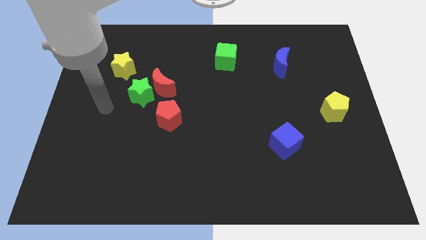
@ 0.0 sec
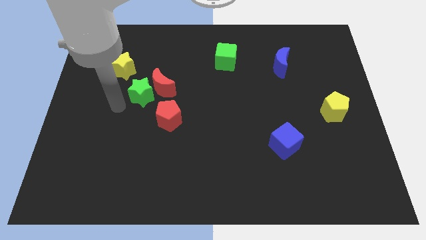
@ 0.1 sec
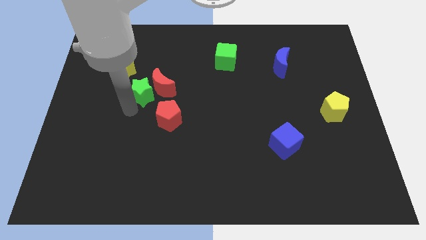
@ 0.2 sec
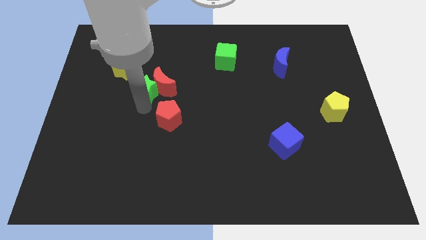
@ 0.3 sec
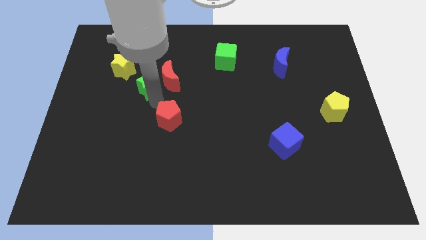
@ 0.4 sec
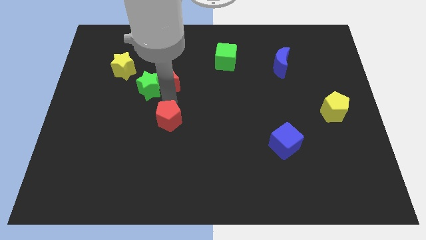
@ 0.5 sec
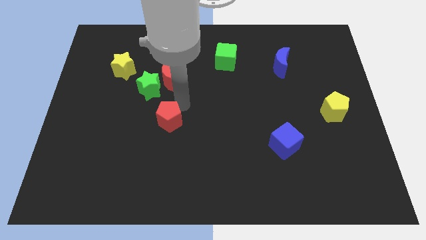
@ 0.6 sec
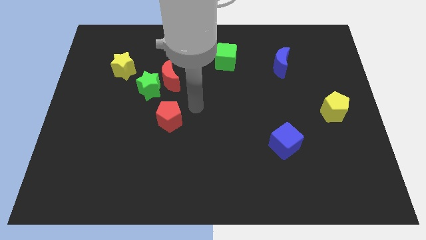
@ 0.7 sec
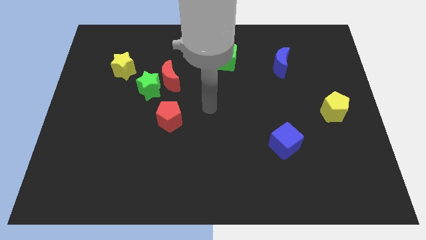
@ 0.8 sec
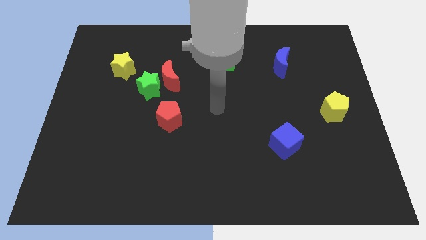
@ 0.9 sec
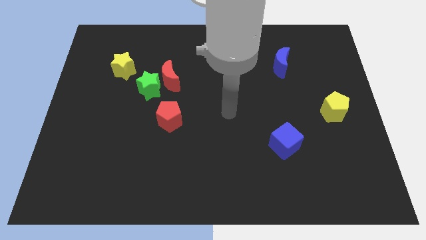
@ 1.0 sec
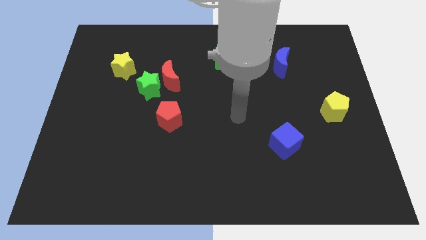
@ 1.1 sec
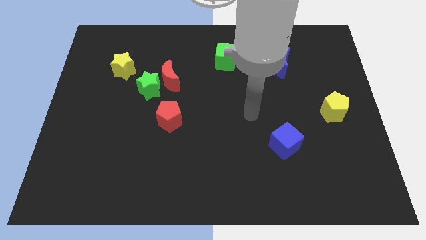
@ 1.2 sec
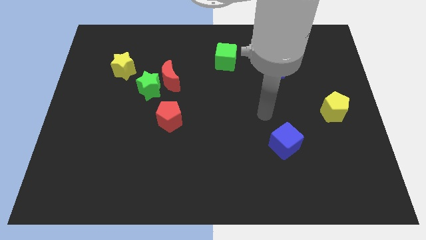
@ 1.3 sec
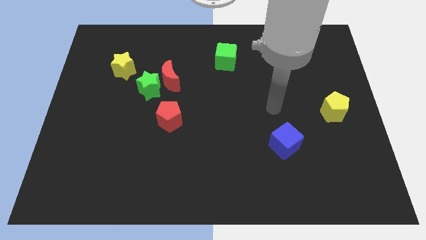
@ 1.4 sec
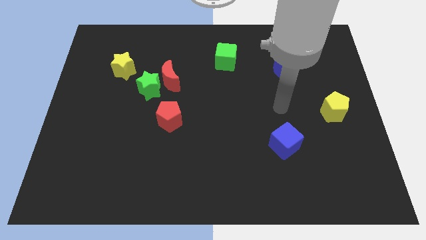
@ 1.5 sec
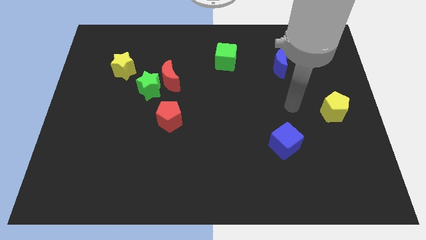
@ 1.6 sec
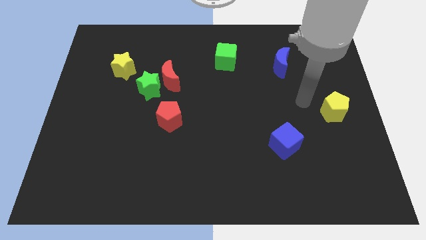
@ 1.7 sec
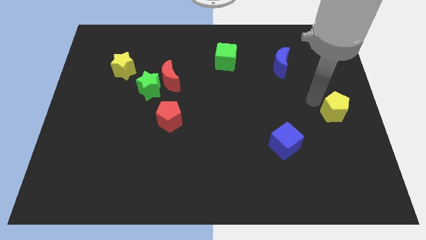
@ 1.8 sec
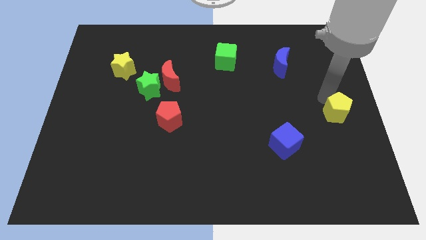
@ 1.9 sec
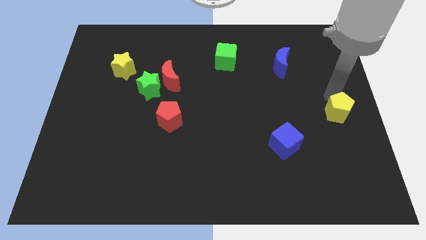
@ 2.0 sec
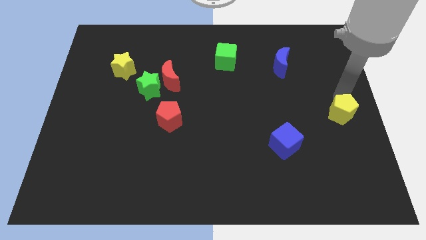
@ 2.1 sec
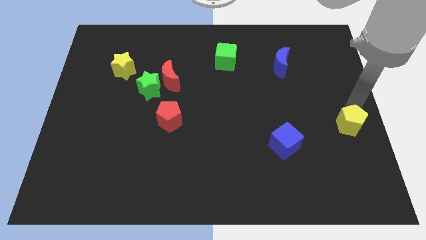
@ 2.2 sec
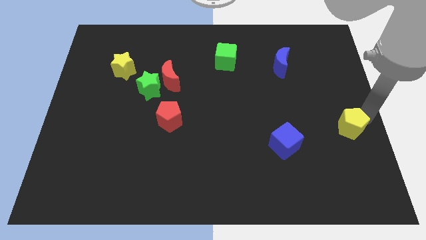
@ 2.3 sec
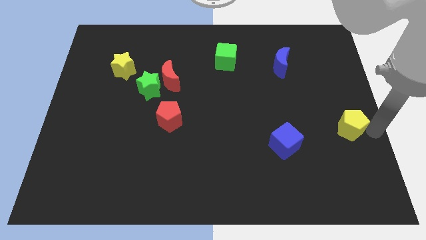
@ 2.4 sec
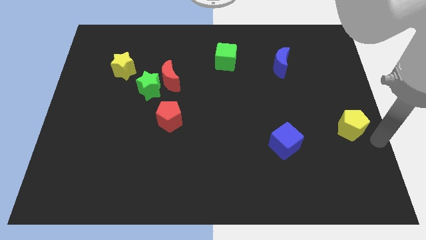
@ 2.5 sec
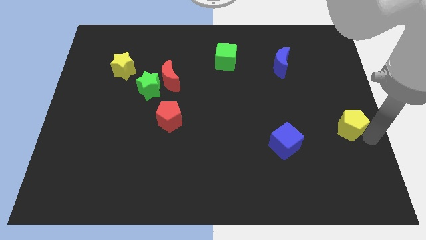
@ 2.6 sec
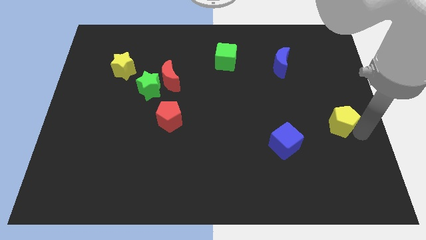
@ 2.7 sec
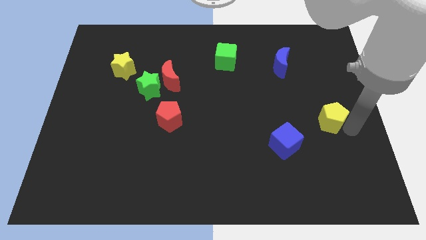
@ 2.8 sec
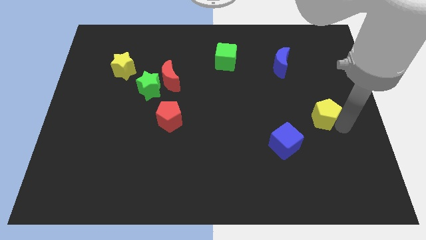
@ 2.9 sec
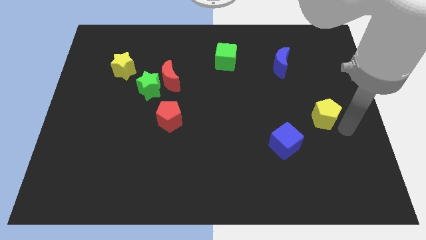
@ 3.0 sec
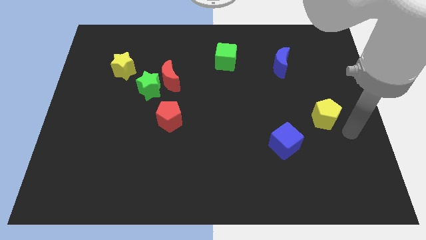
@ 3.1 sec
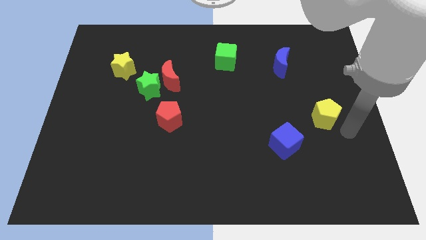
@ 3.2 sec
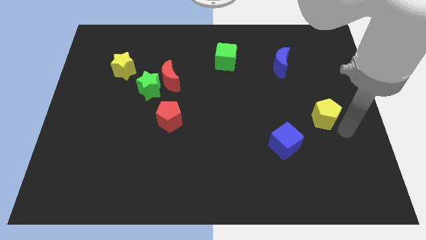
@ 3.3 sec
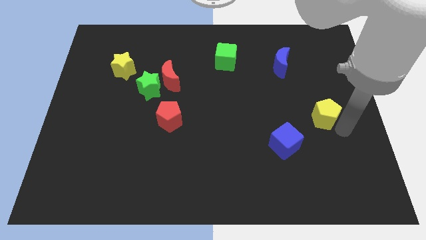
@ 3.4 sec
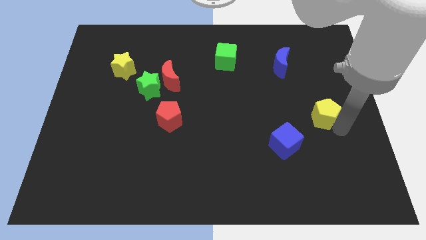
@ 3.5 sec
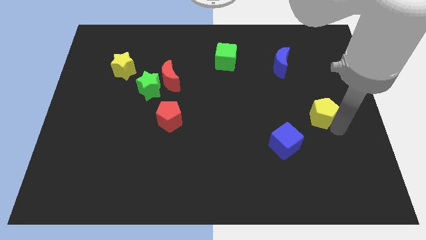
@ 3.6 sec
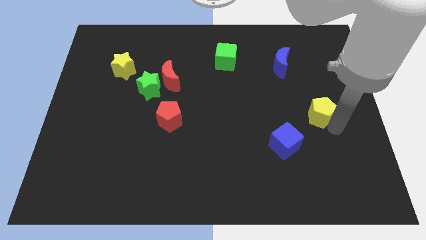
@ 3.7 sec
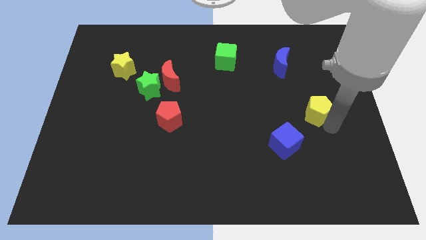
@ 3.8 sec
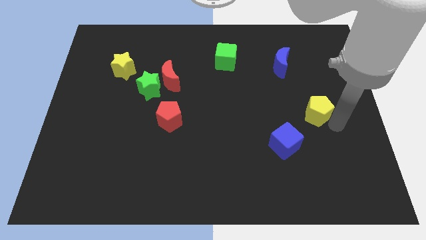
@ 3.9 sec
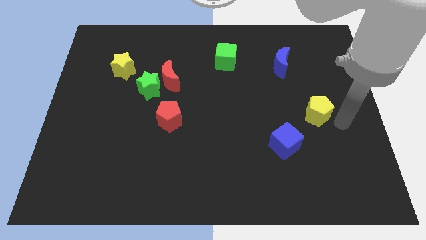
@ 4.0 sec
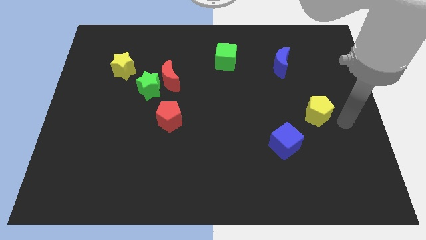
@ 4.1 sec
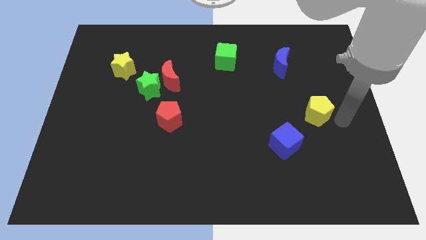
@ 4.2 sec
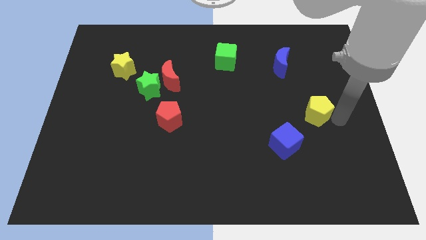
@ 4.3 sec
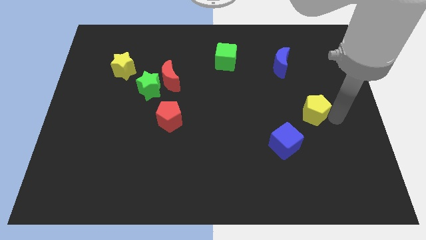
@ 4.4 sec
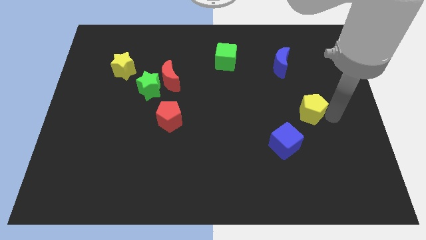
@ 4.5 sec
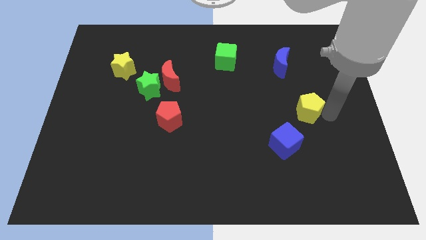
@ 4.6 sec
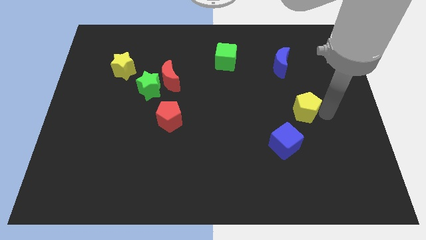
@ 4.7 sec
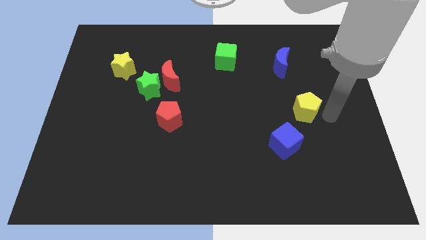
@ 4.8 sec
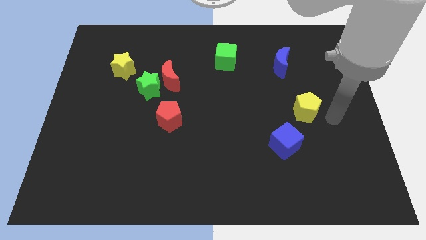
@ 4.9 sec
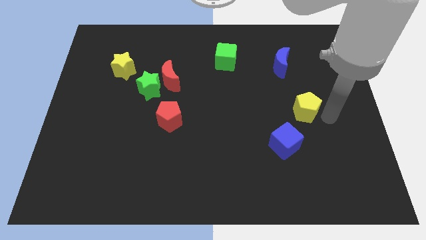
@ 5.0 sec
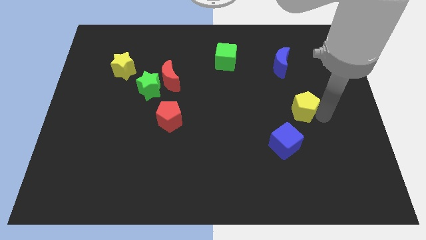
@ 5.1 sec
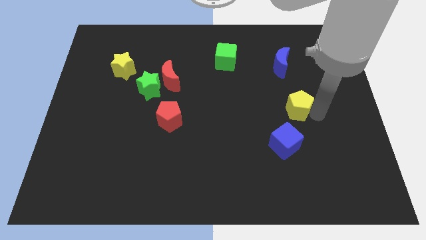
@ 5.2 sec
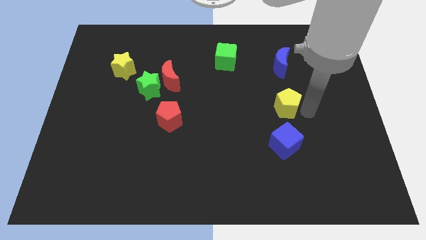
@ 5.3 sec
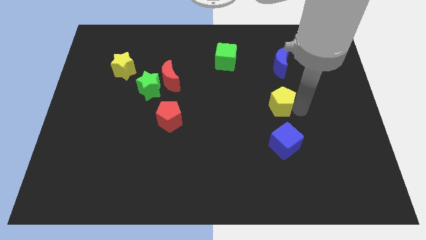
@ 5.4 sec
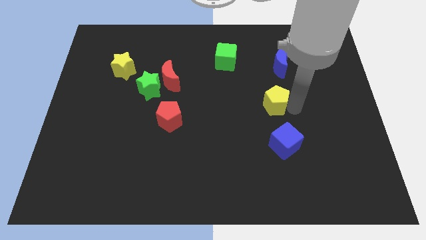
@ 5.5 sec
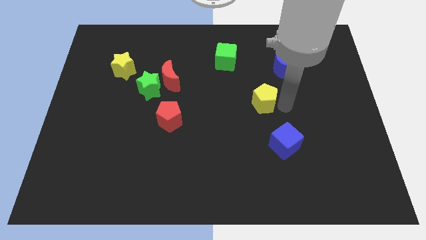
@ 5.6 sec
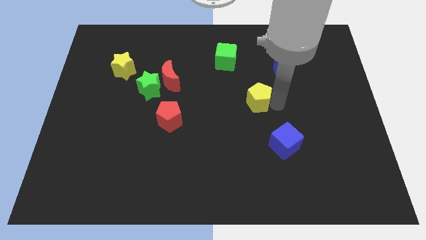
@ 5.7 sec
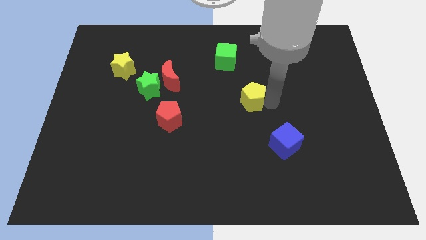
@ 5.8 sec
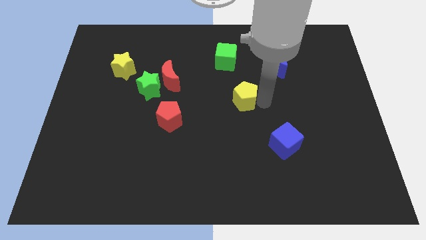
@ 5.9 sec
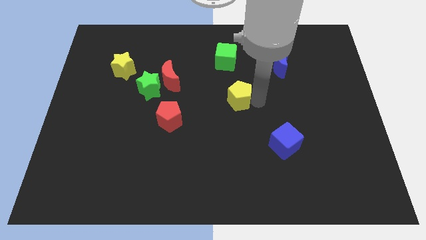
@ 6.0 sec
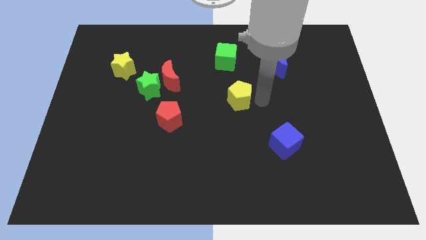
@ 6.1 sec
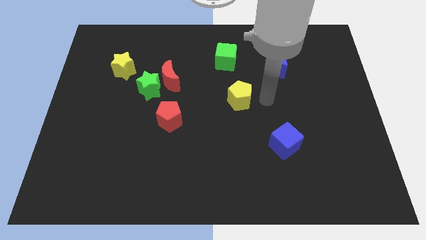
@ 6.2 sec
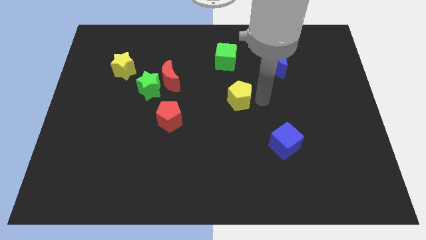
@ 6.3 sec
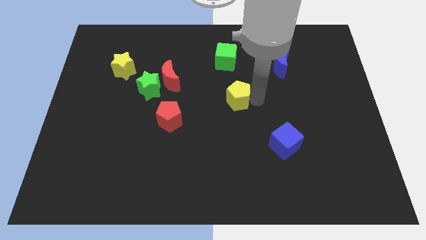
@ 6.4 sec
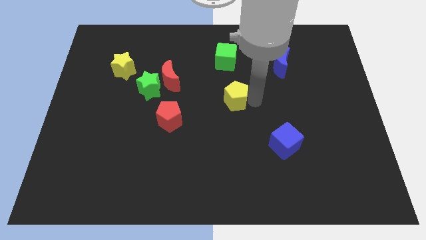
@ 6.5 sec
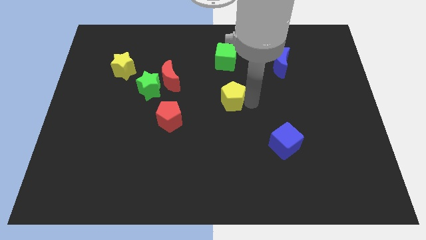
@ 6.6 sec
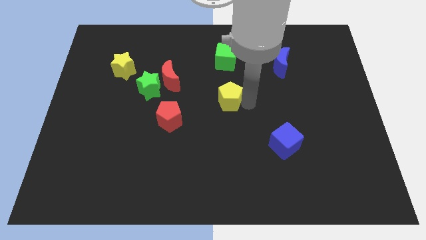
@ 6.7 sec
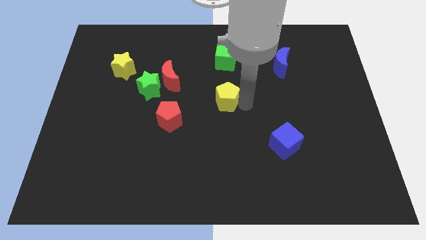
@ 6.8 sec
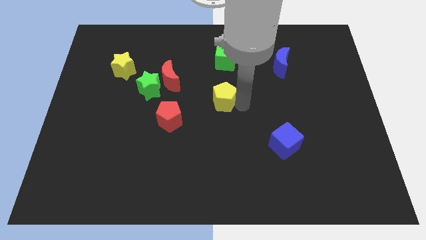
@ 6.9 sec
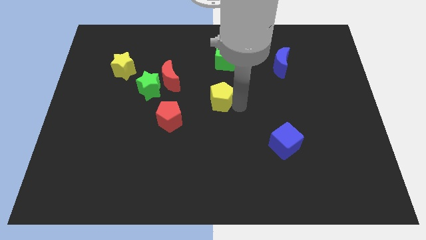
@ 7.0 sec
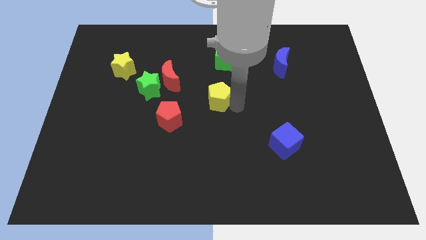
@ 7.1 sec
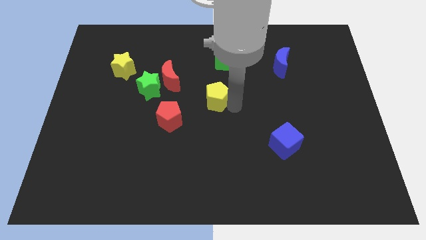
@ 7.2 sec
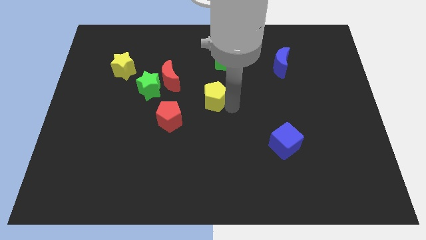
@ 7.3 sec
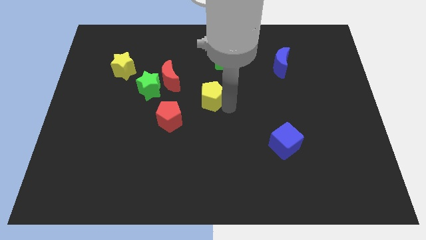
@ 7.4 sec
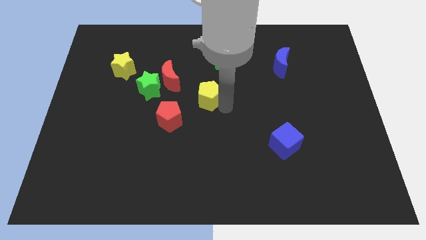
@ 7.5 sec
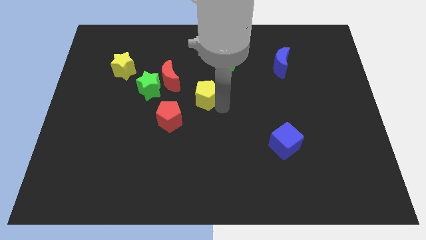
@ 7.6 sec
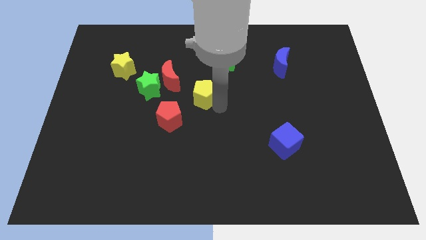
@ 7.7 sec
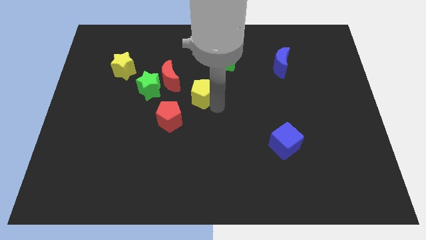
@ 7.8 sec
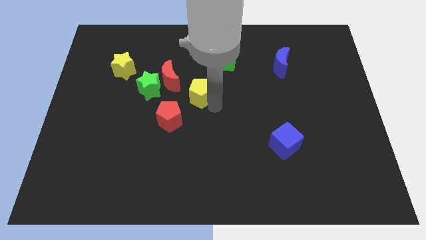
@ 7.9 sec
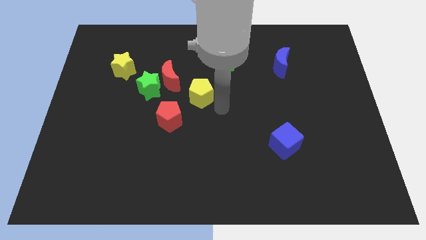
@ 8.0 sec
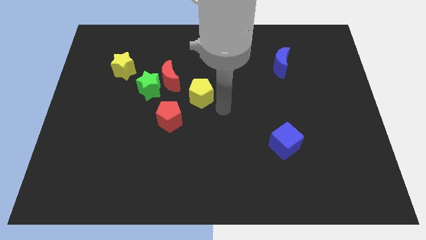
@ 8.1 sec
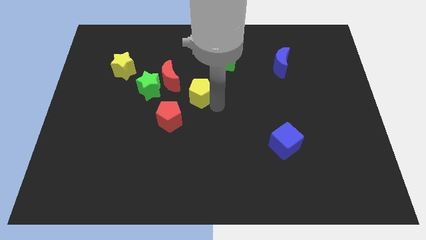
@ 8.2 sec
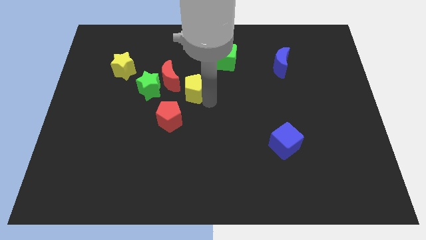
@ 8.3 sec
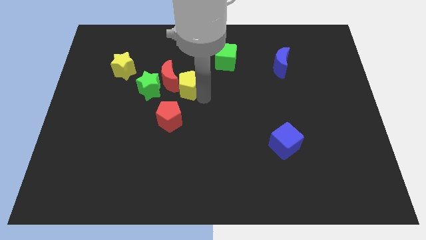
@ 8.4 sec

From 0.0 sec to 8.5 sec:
push the yellow pentagon next to the red moon
